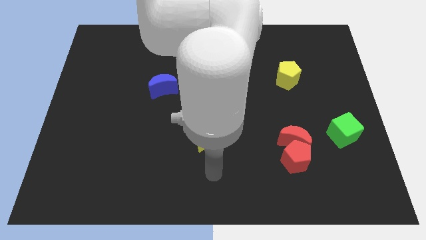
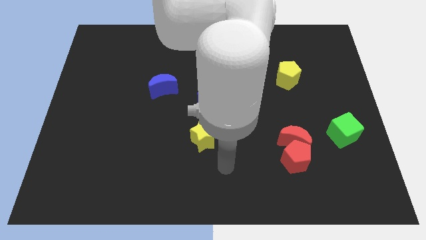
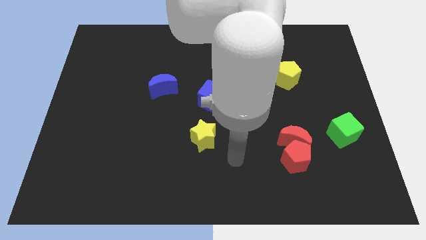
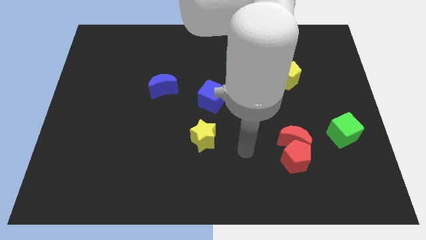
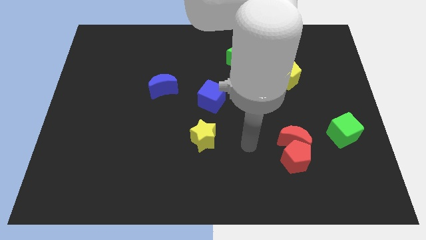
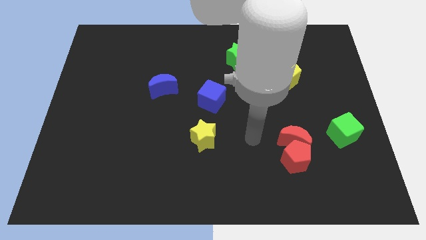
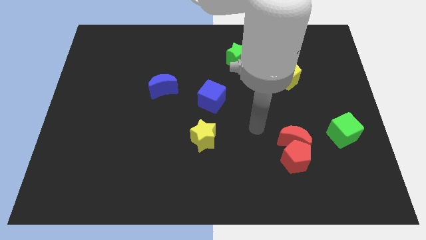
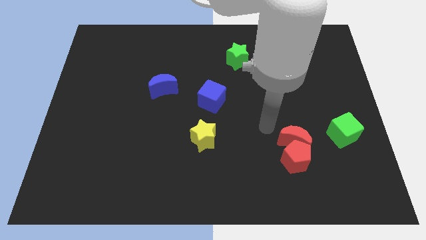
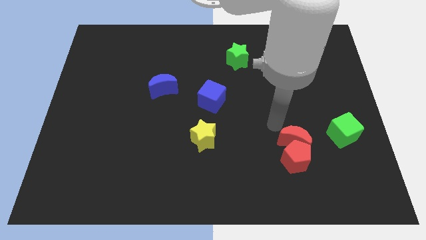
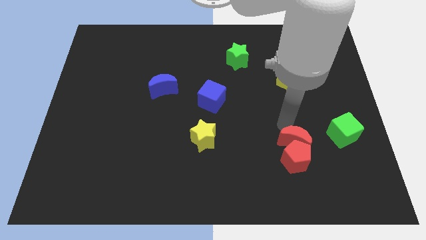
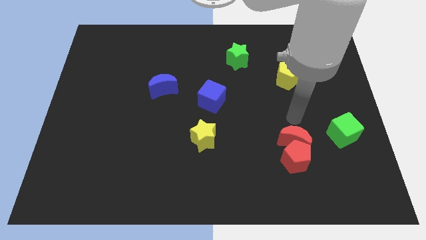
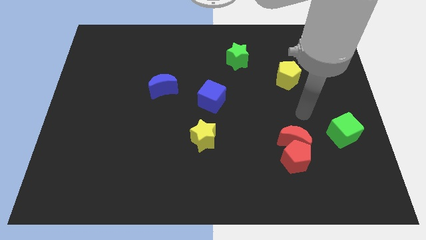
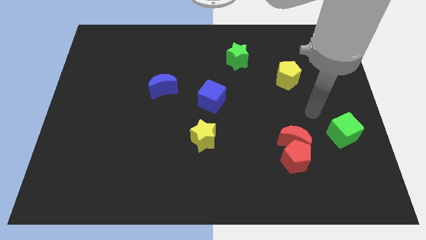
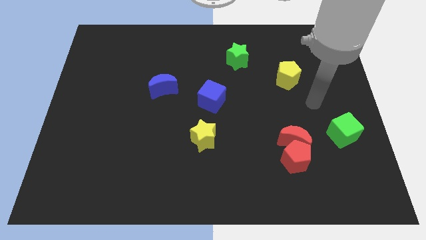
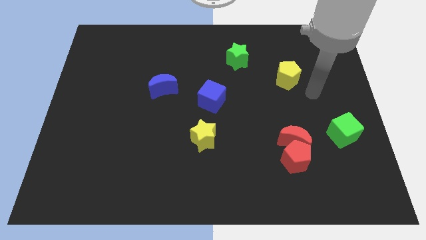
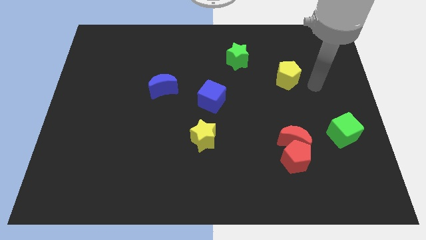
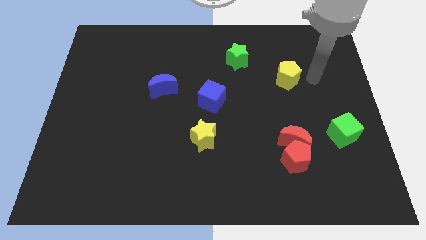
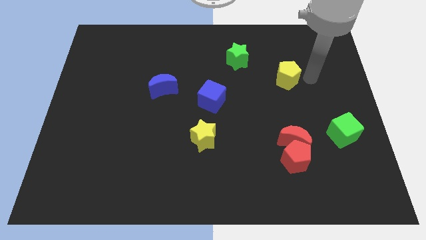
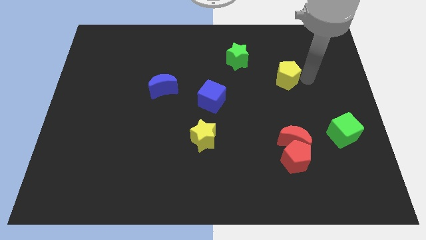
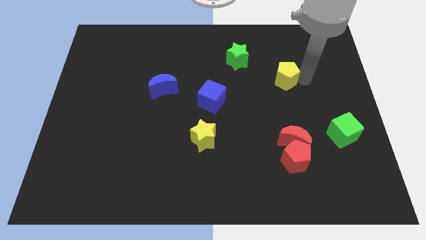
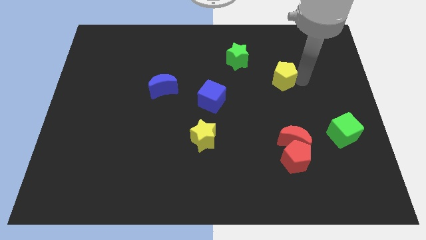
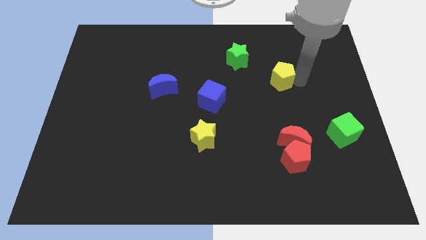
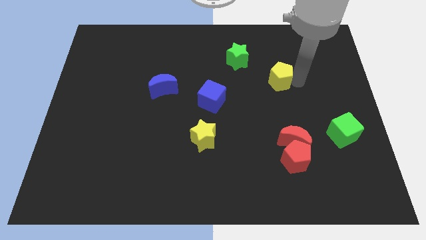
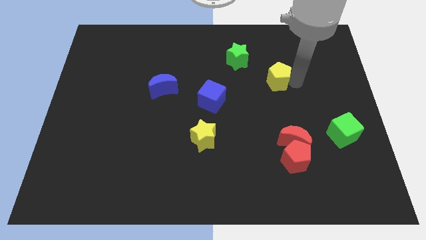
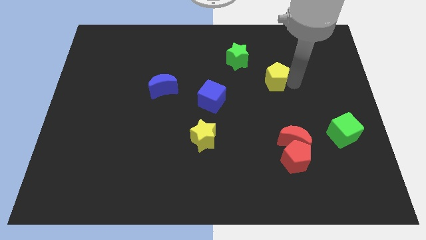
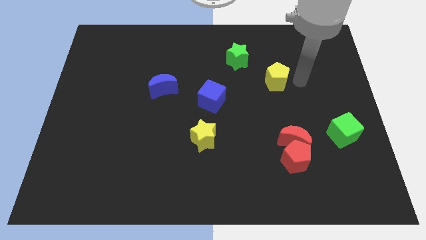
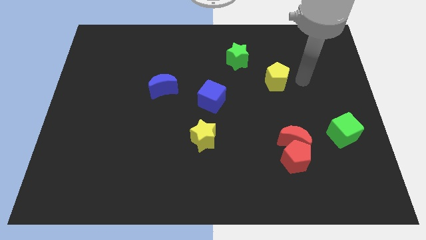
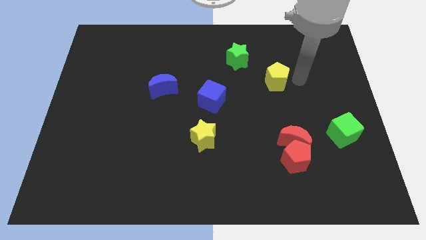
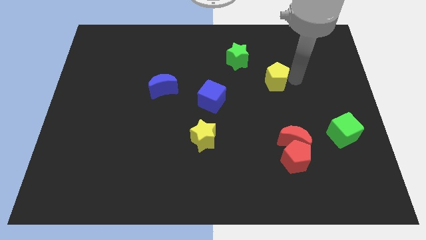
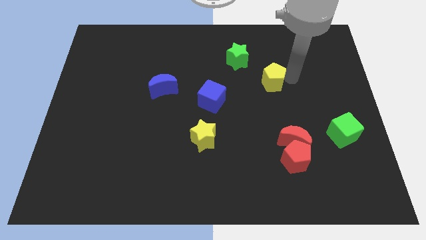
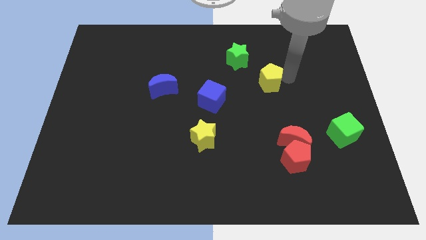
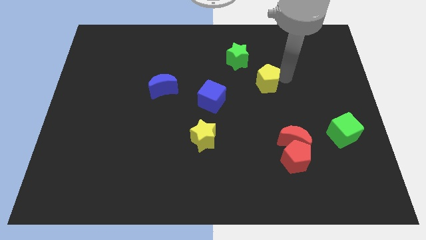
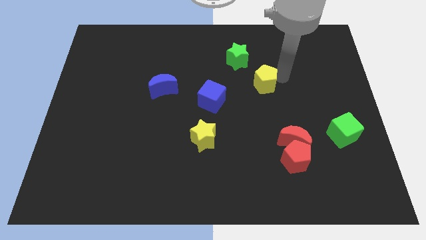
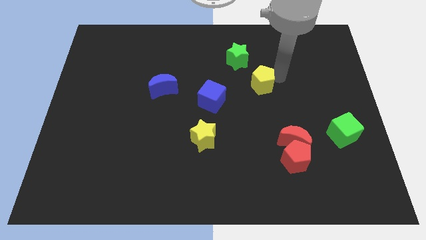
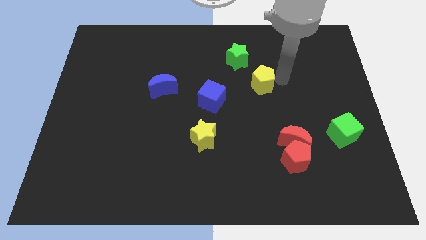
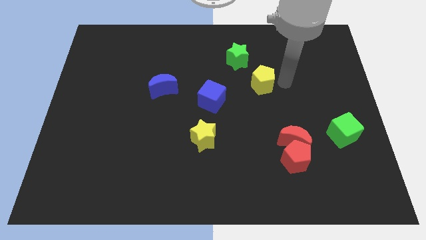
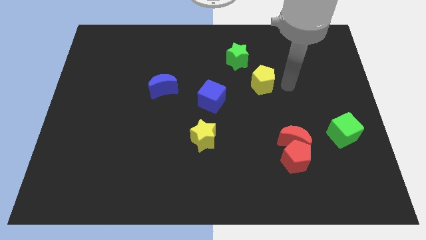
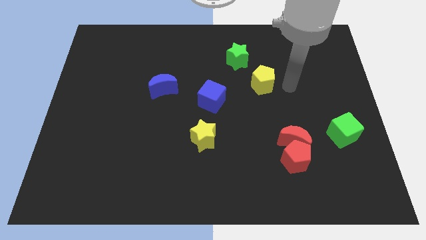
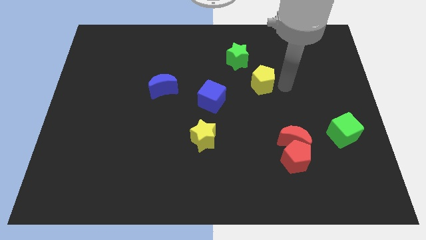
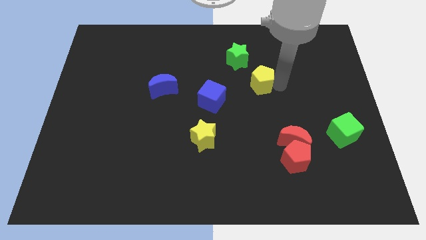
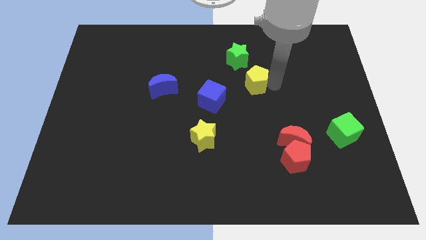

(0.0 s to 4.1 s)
move the yellow pentagon left somewhat

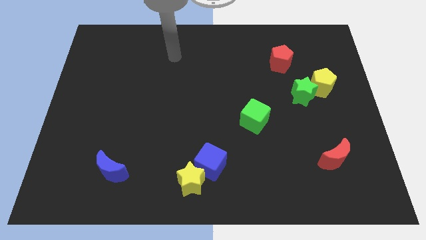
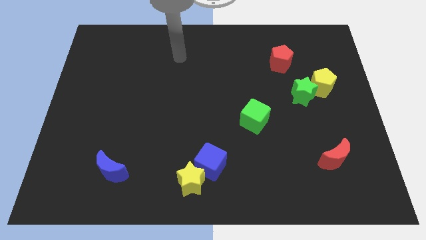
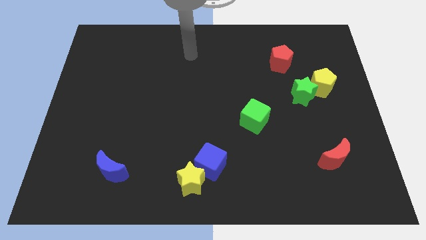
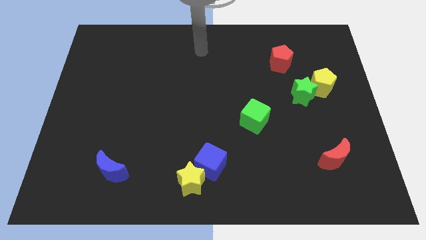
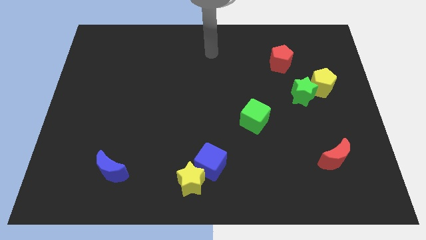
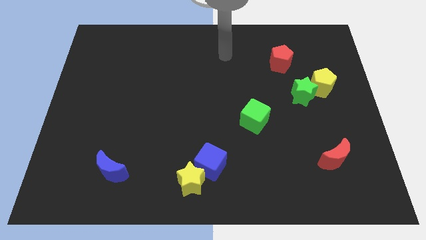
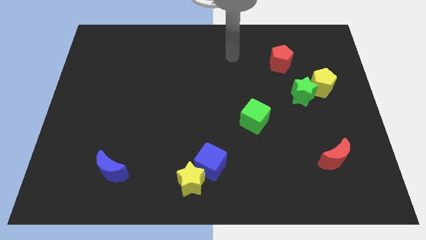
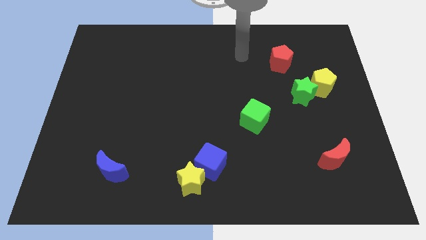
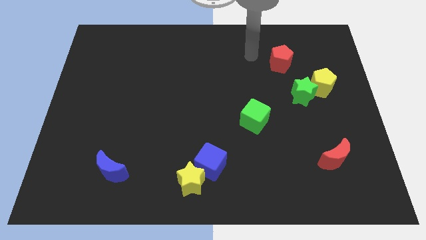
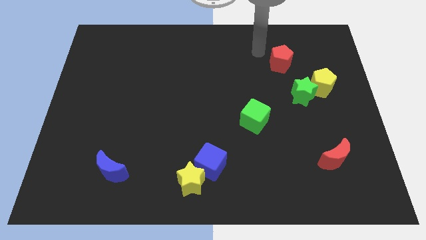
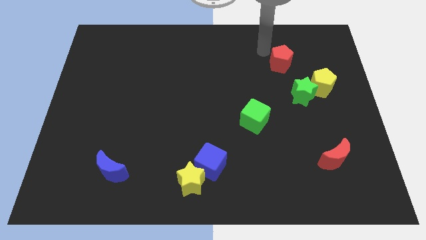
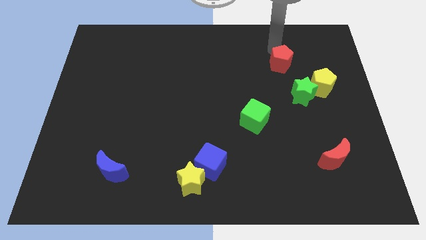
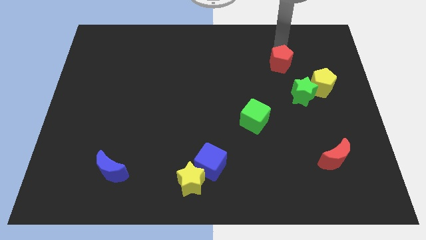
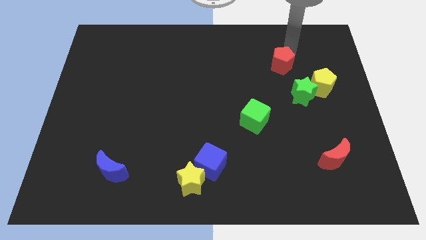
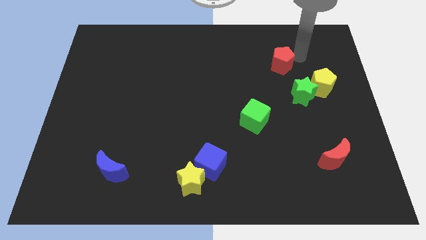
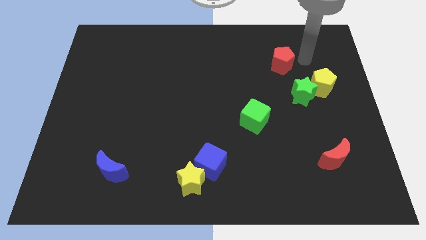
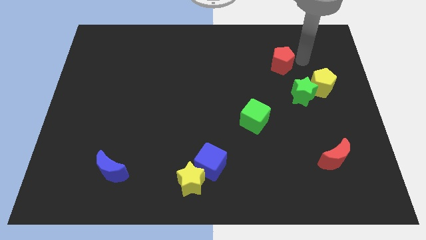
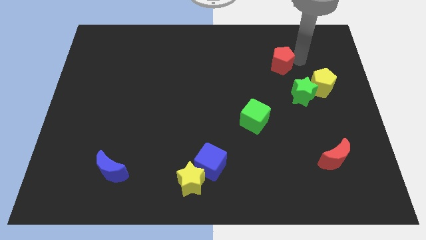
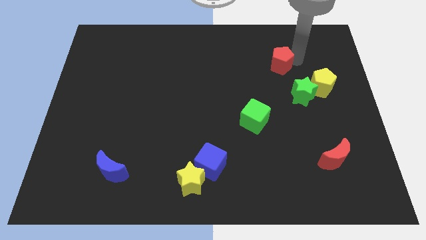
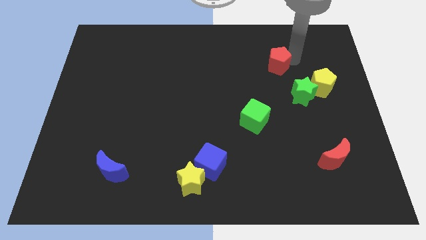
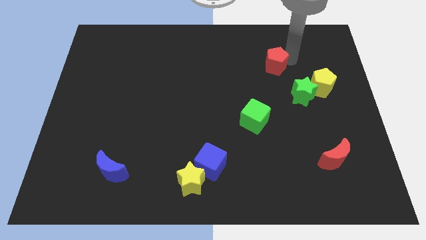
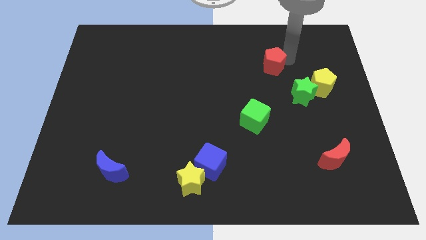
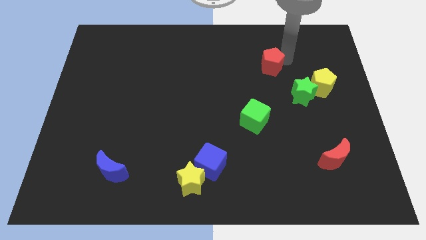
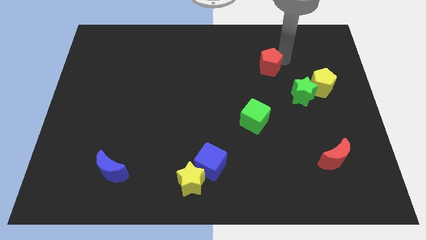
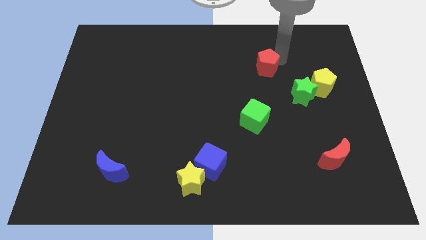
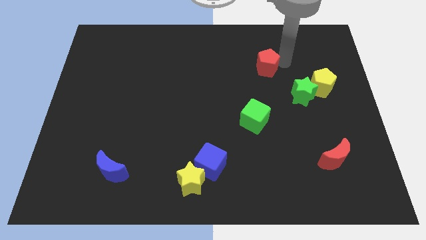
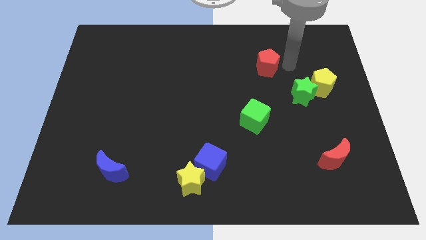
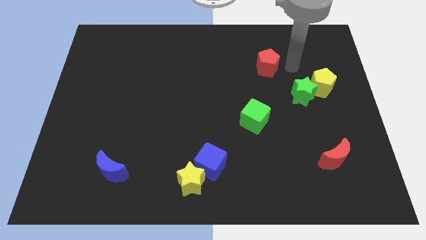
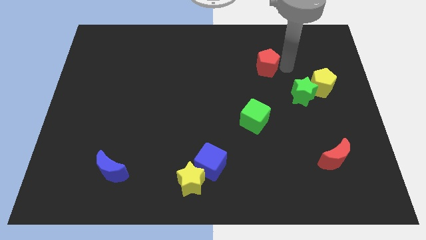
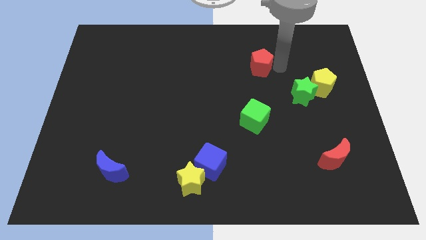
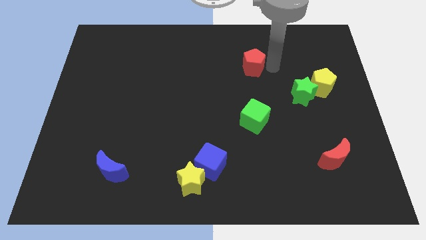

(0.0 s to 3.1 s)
slide the red pentagon somewhat left

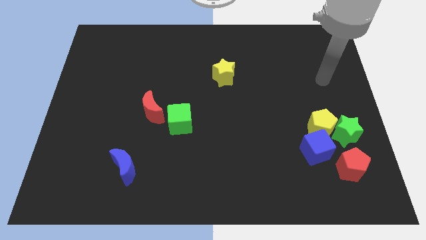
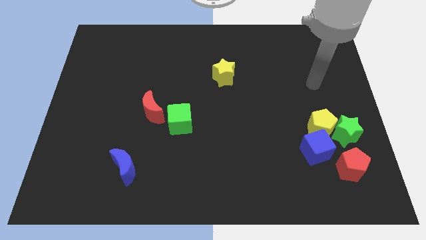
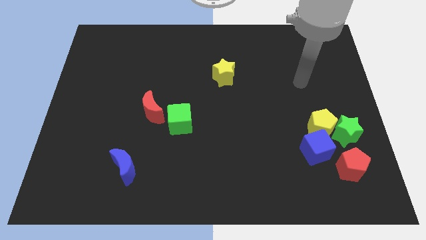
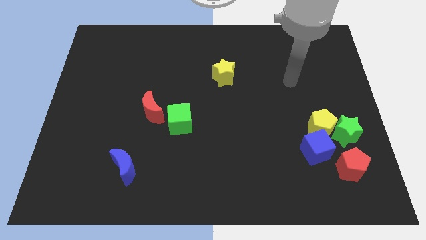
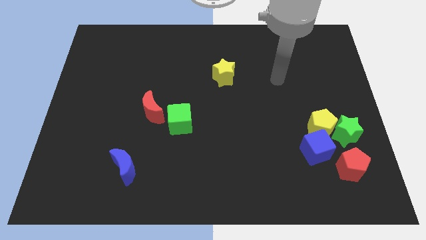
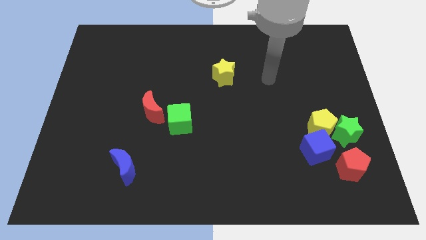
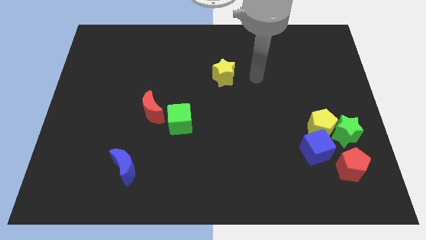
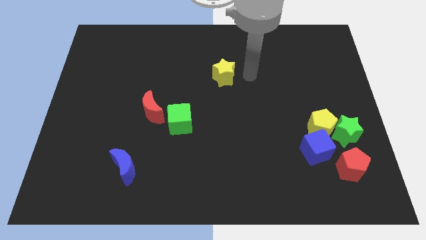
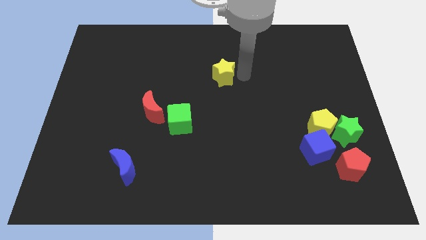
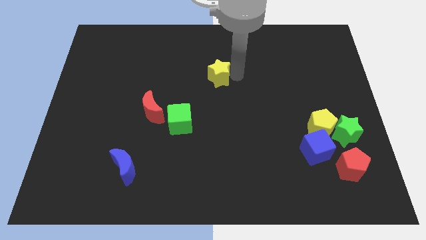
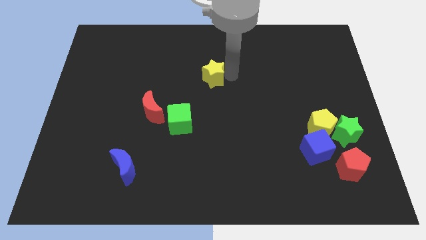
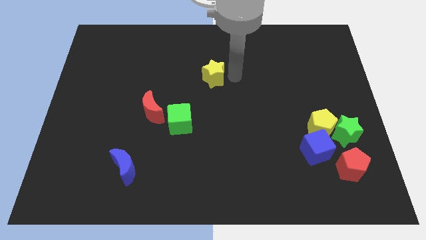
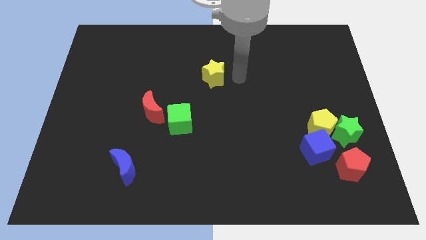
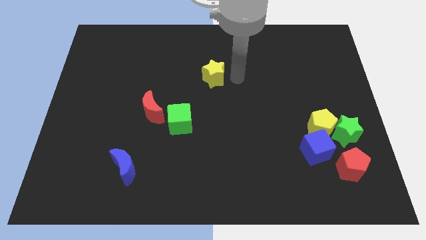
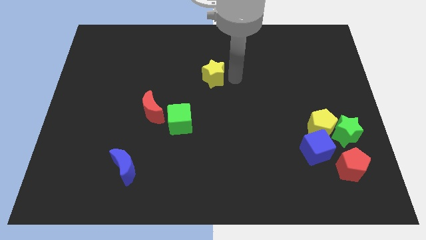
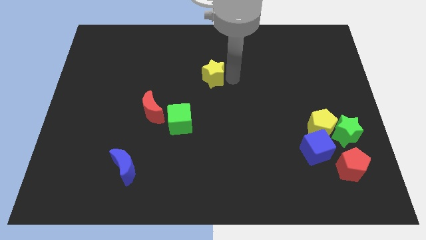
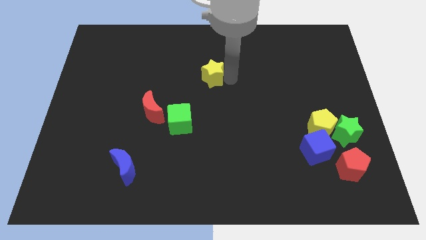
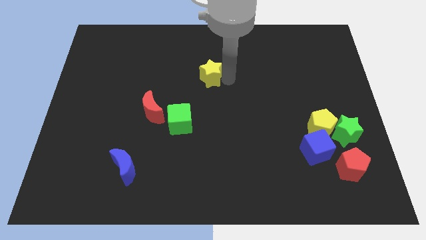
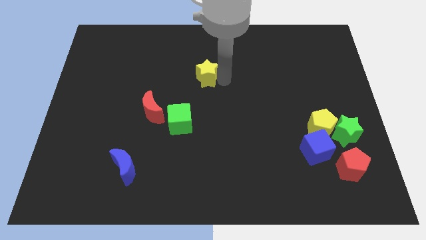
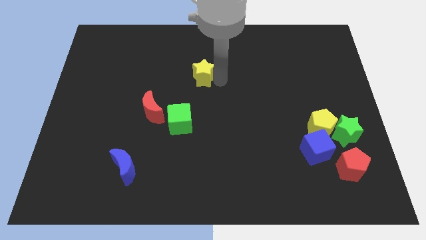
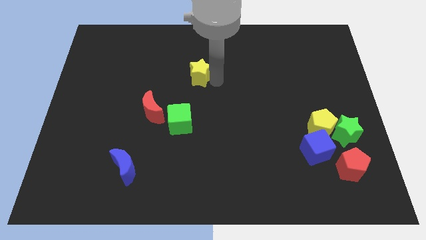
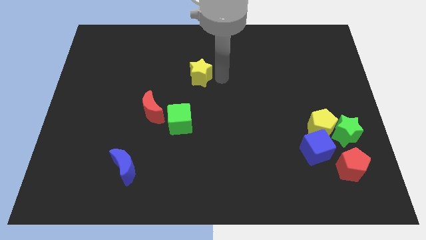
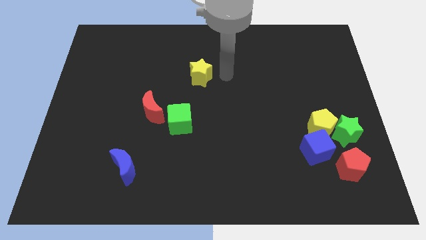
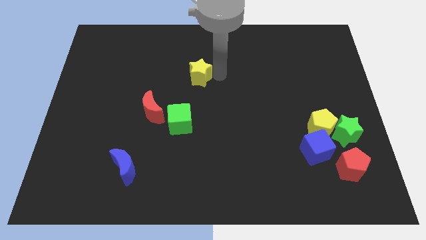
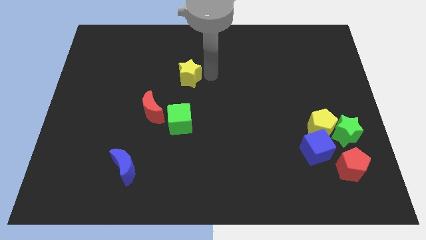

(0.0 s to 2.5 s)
move the yellow star slightly to the left
